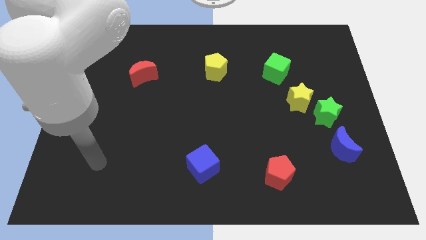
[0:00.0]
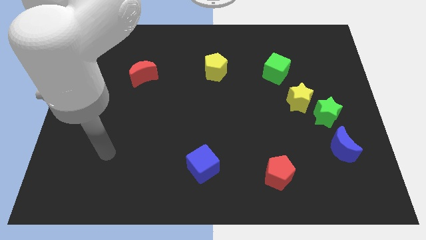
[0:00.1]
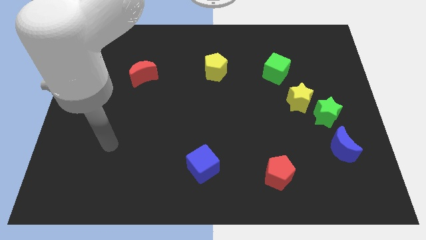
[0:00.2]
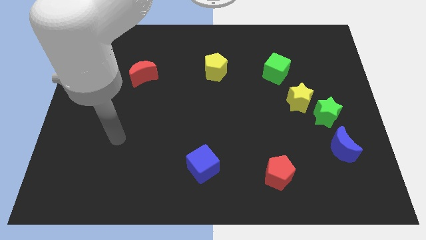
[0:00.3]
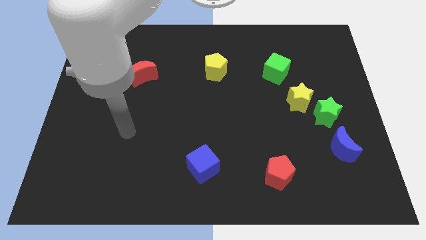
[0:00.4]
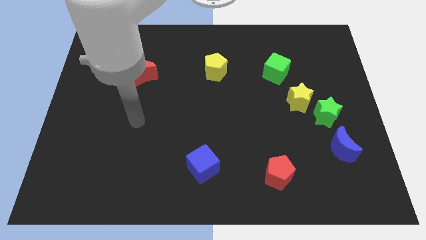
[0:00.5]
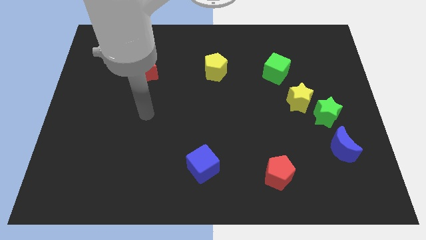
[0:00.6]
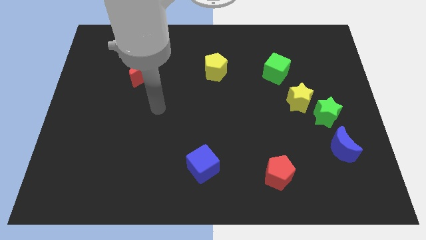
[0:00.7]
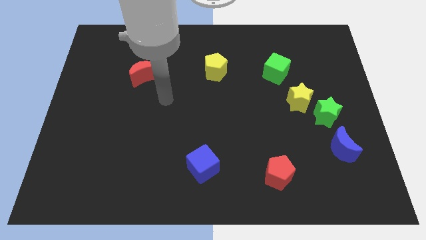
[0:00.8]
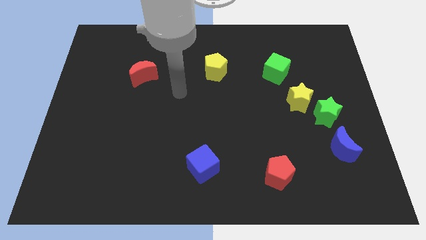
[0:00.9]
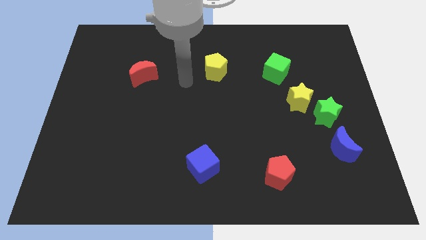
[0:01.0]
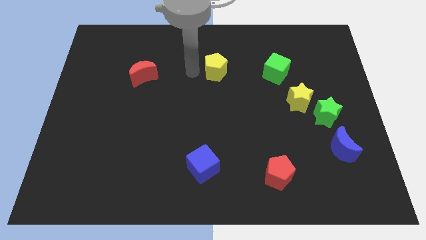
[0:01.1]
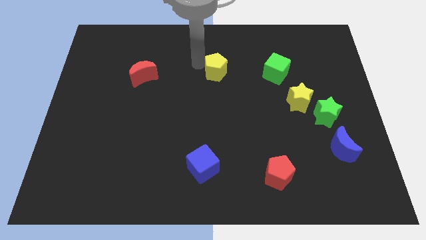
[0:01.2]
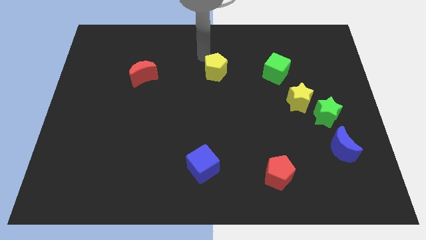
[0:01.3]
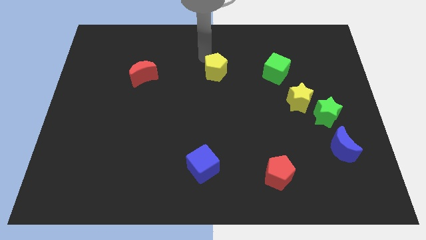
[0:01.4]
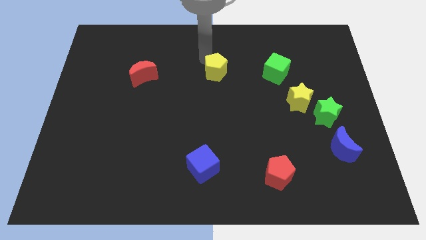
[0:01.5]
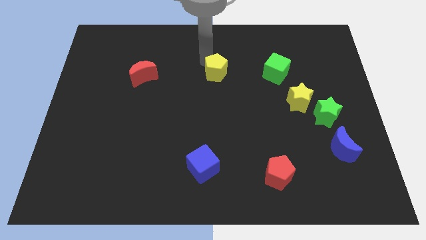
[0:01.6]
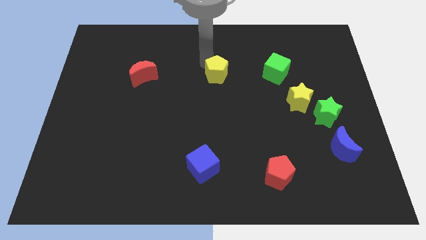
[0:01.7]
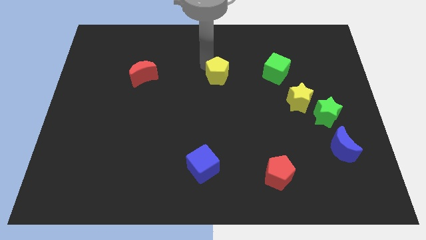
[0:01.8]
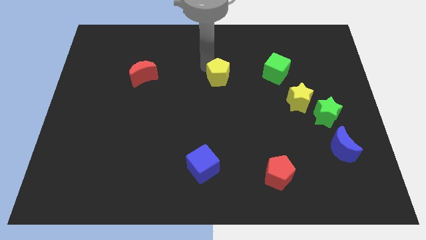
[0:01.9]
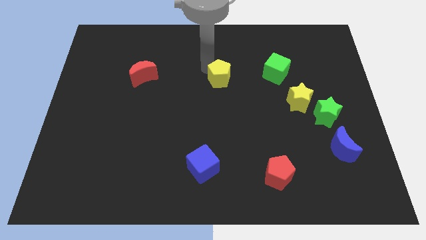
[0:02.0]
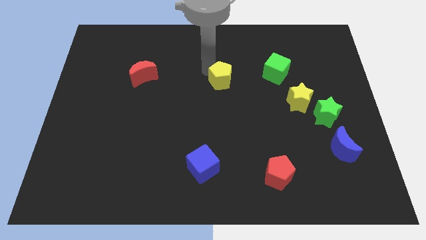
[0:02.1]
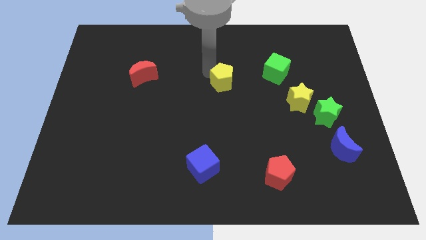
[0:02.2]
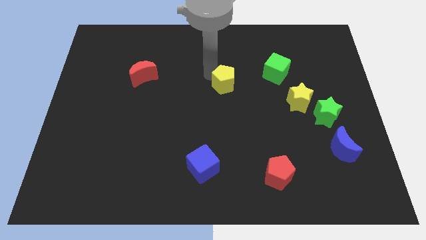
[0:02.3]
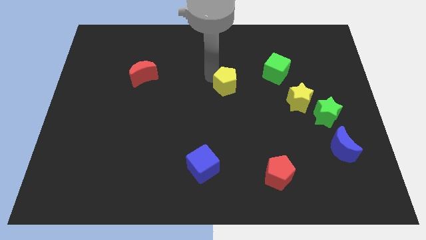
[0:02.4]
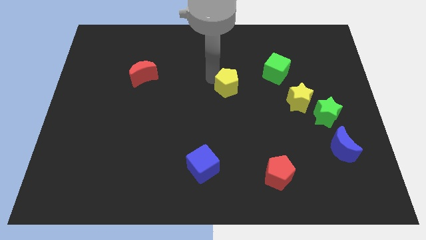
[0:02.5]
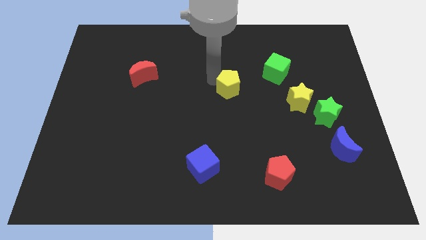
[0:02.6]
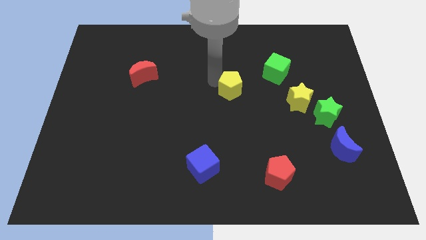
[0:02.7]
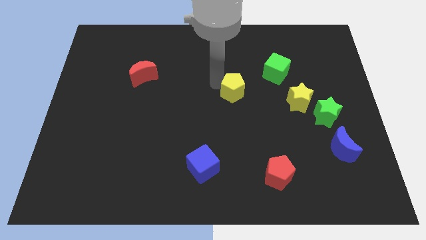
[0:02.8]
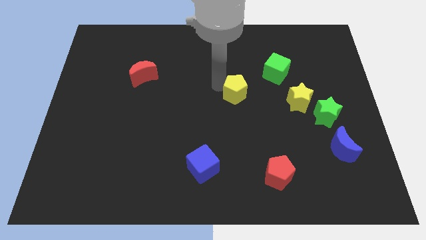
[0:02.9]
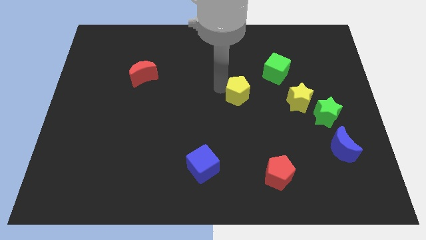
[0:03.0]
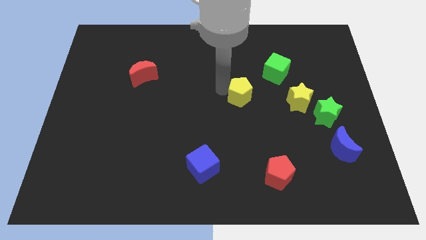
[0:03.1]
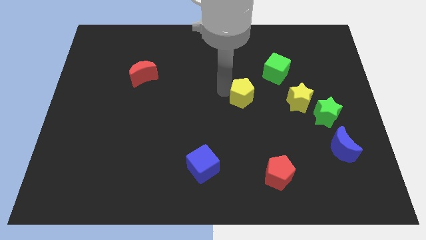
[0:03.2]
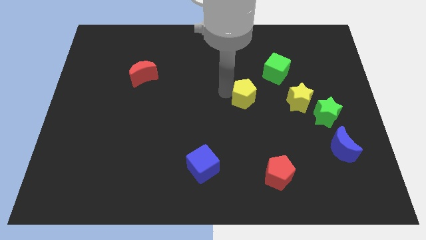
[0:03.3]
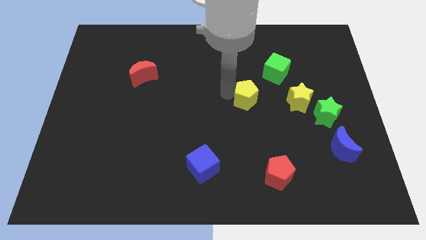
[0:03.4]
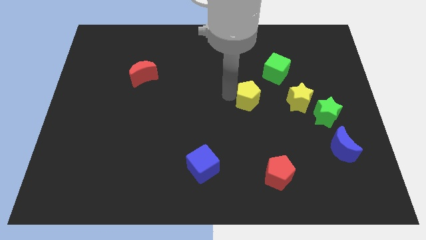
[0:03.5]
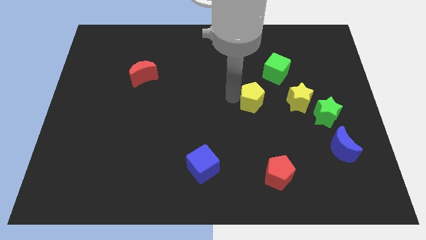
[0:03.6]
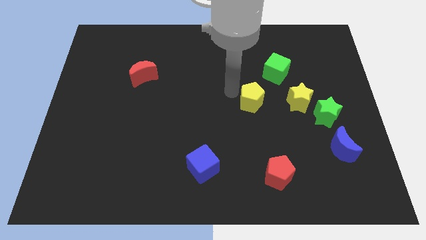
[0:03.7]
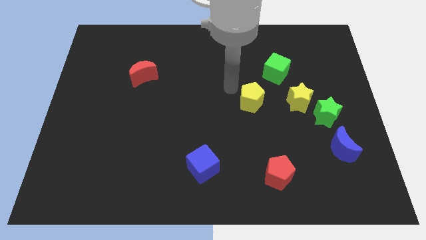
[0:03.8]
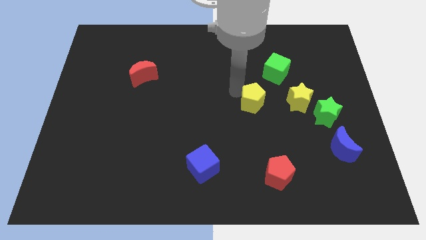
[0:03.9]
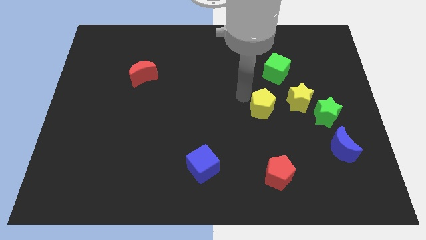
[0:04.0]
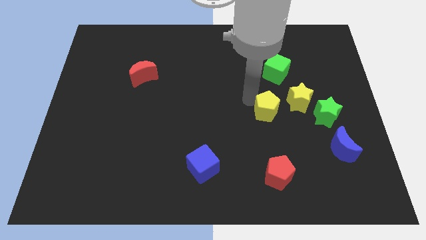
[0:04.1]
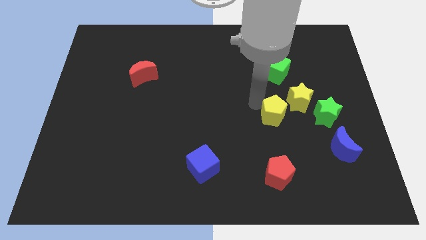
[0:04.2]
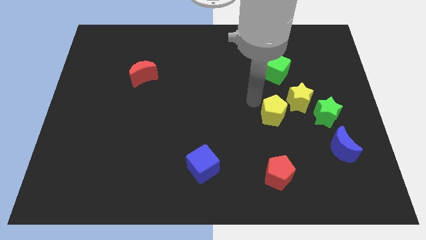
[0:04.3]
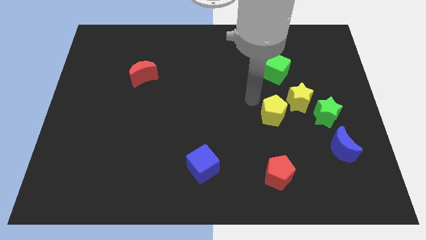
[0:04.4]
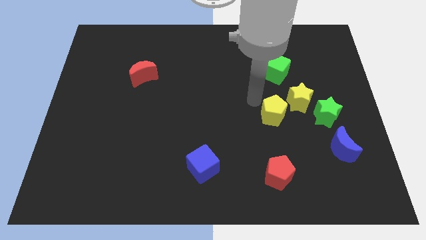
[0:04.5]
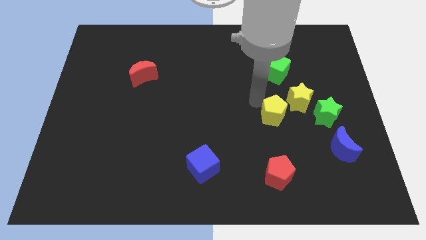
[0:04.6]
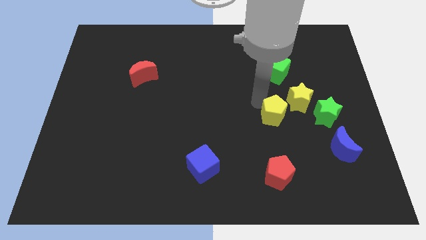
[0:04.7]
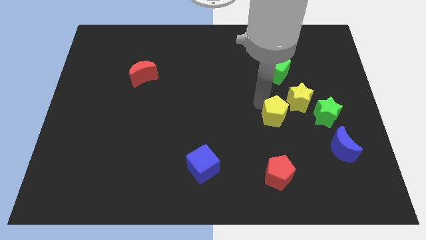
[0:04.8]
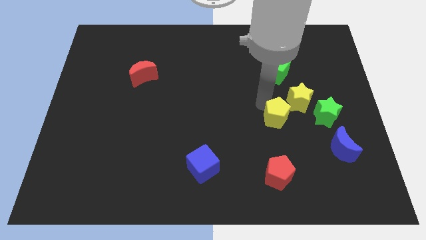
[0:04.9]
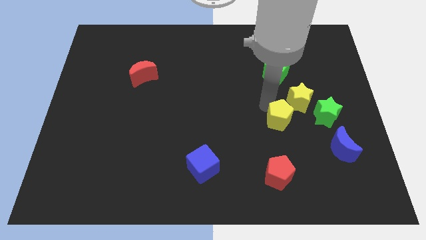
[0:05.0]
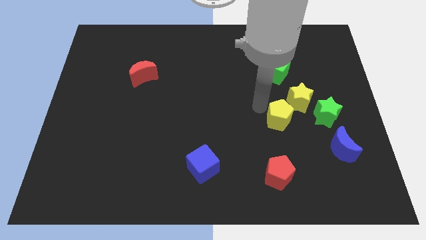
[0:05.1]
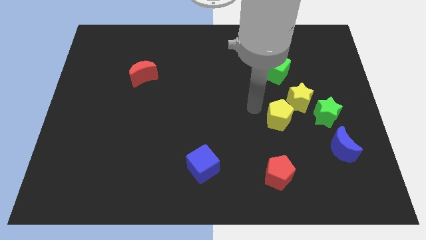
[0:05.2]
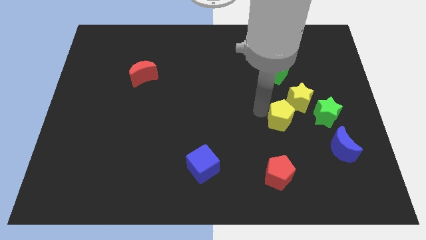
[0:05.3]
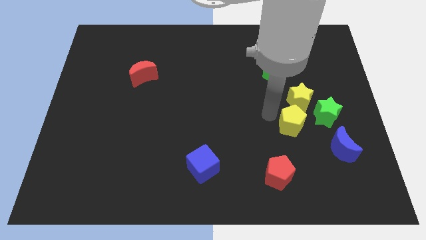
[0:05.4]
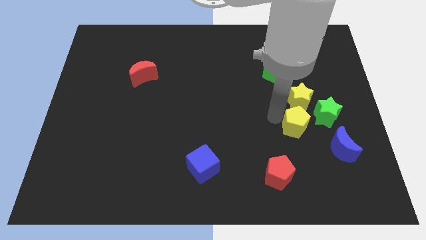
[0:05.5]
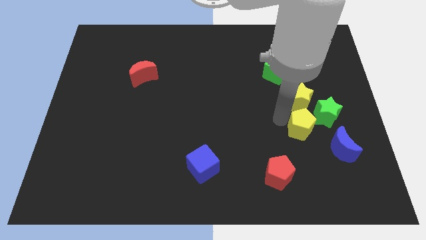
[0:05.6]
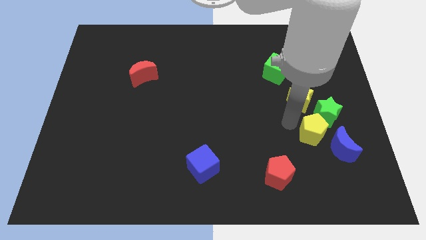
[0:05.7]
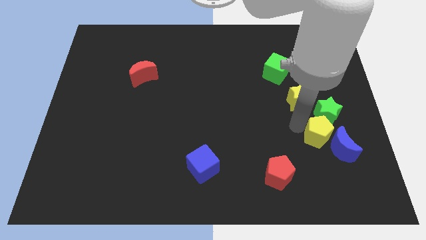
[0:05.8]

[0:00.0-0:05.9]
slide the yellow pentagon towards the blue moon
